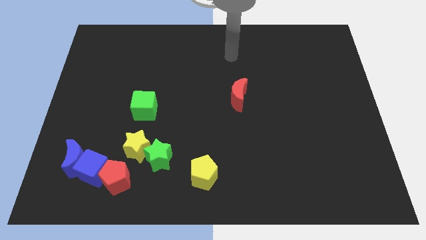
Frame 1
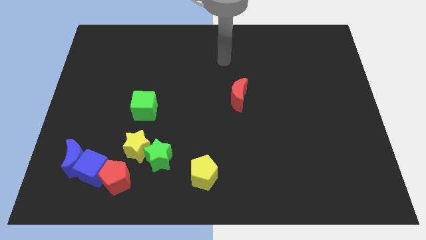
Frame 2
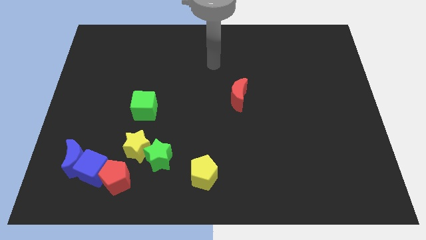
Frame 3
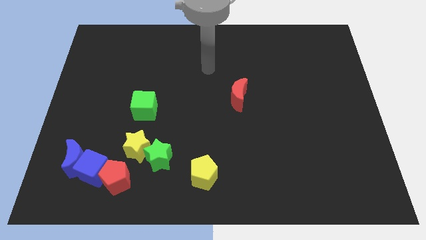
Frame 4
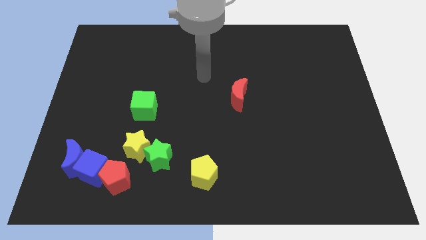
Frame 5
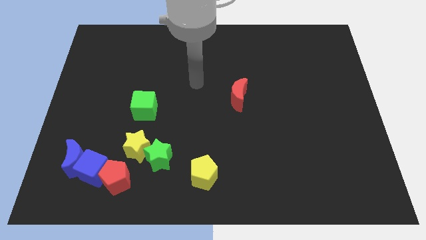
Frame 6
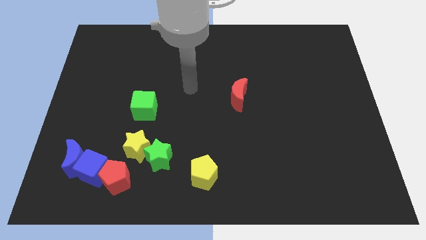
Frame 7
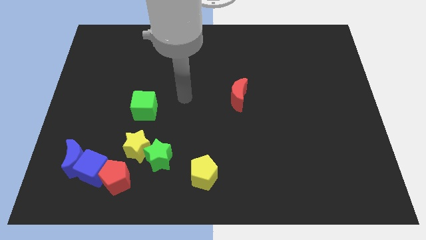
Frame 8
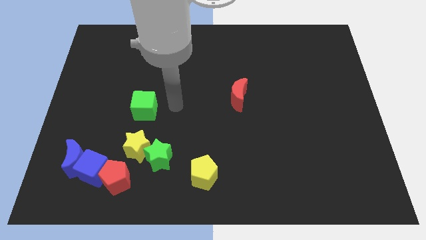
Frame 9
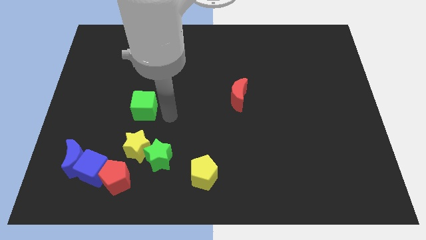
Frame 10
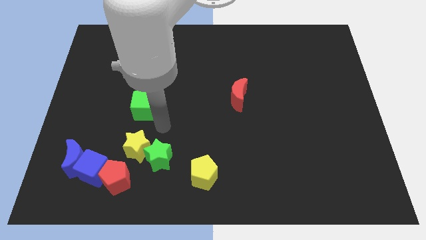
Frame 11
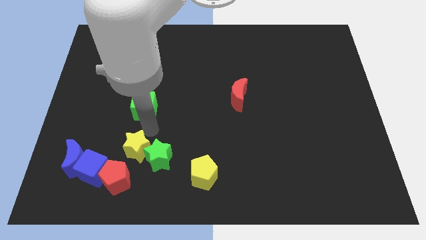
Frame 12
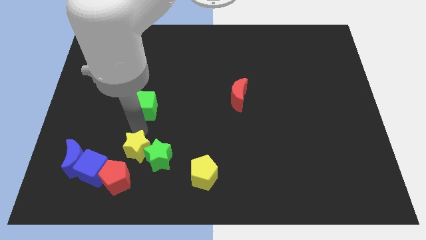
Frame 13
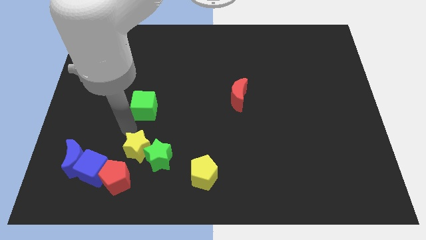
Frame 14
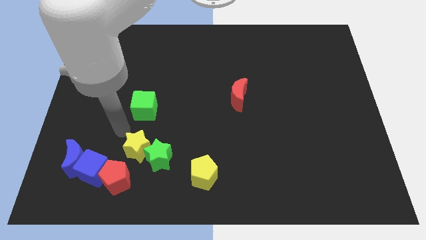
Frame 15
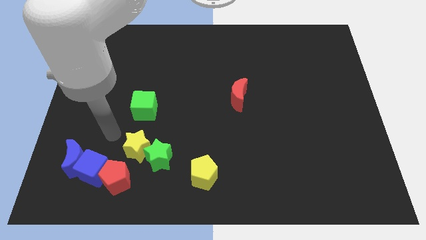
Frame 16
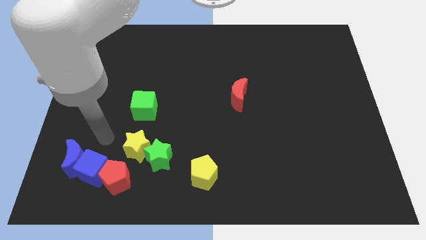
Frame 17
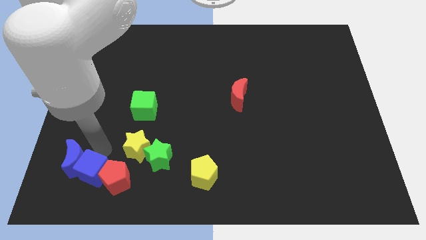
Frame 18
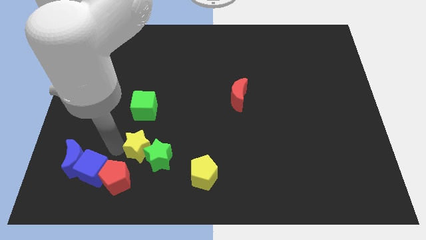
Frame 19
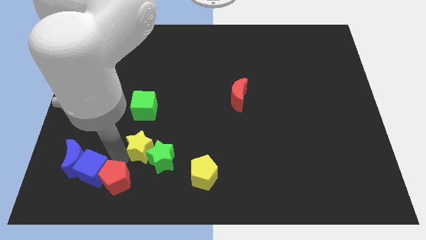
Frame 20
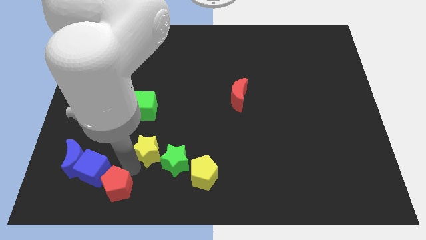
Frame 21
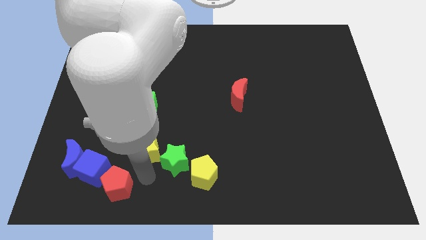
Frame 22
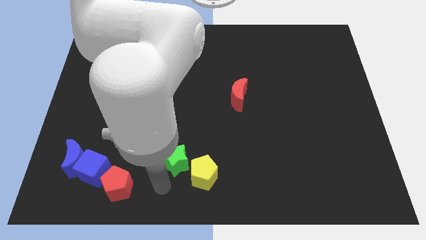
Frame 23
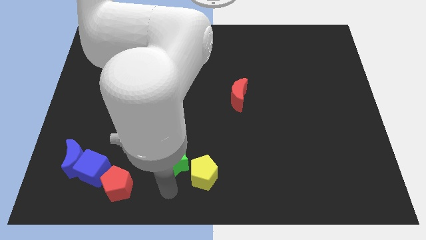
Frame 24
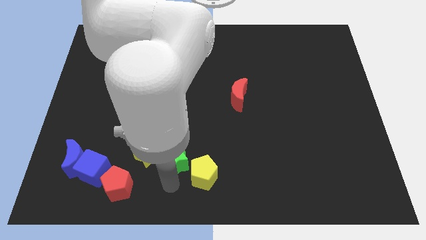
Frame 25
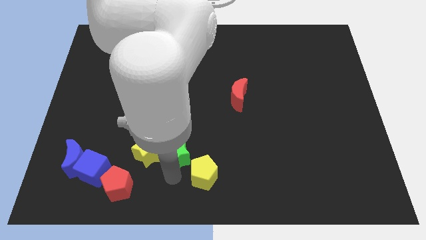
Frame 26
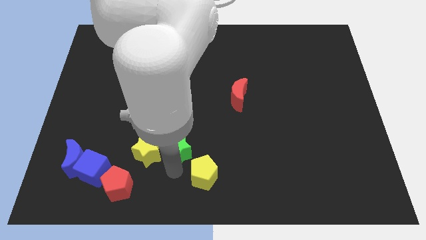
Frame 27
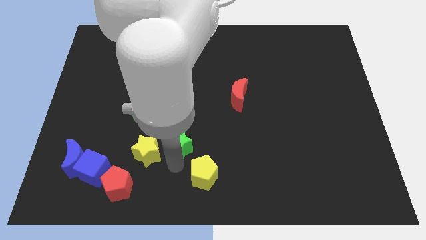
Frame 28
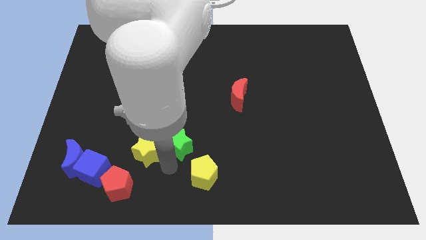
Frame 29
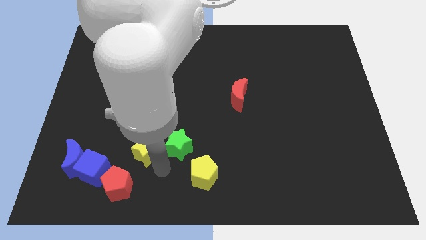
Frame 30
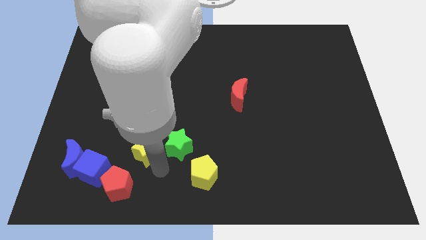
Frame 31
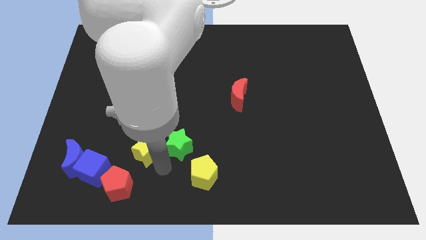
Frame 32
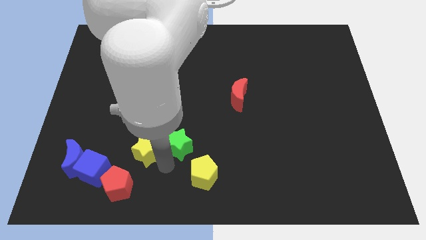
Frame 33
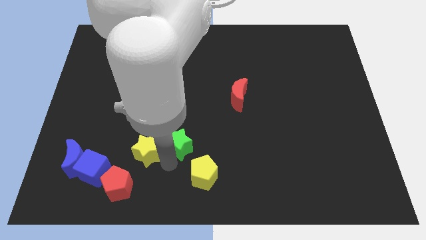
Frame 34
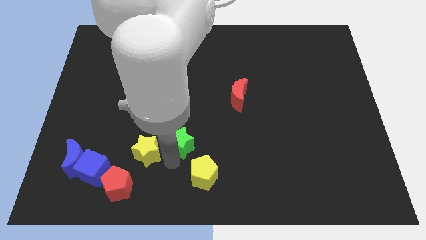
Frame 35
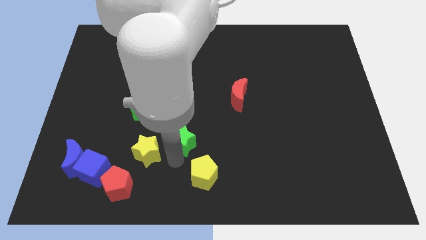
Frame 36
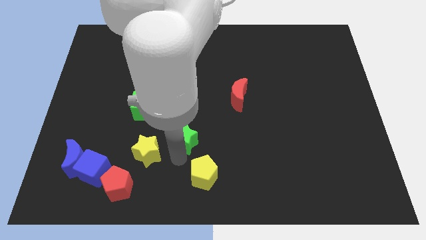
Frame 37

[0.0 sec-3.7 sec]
slide the green star up and to the right a bit

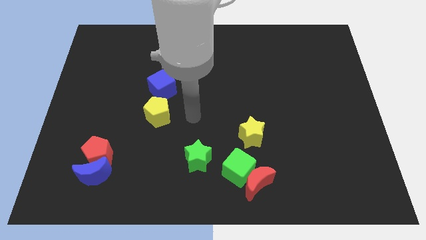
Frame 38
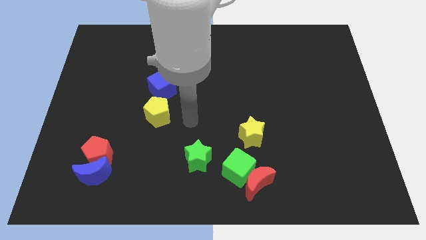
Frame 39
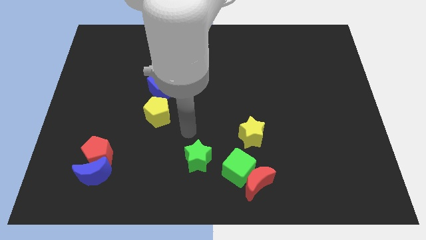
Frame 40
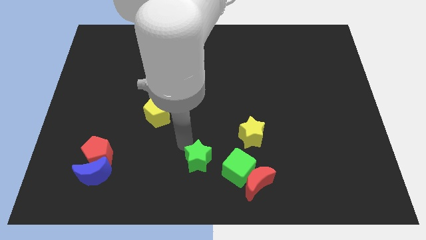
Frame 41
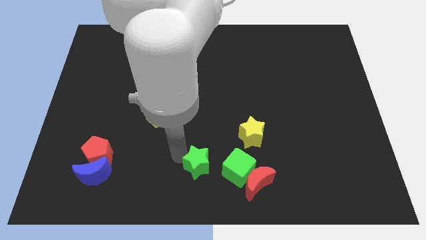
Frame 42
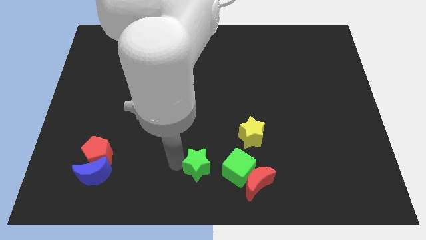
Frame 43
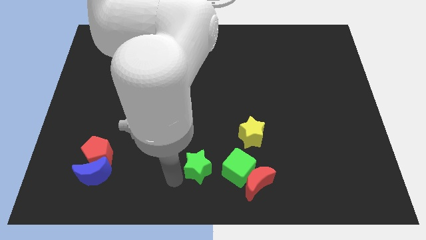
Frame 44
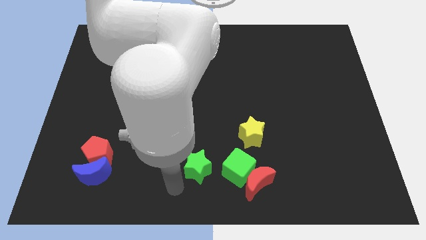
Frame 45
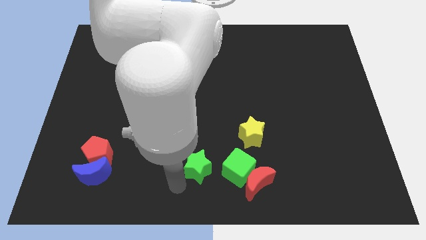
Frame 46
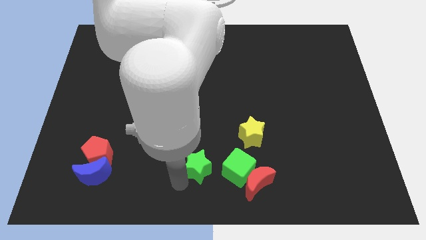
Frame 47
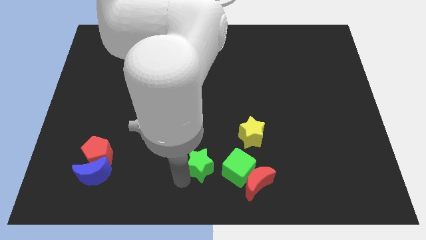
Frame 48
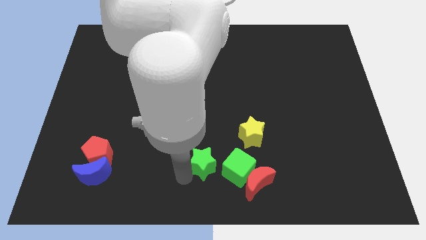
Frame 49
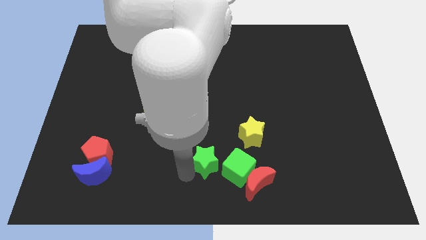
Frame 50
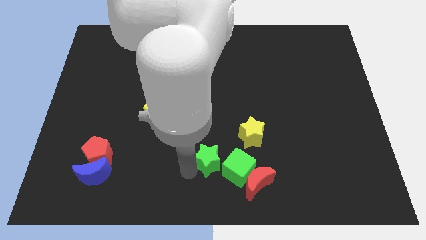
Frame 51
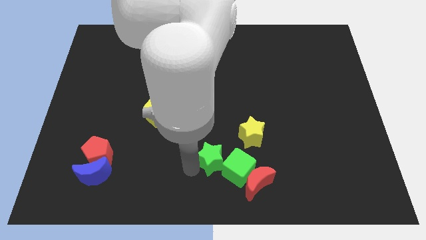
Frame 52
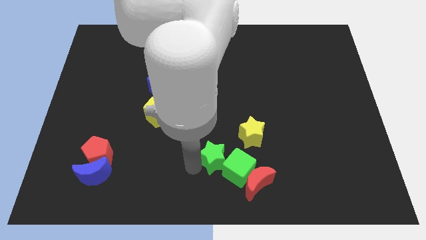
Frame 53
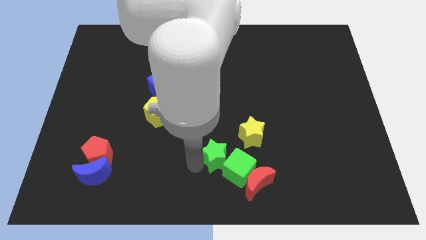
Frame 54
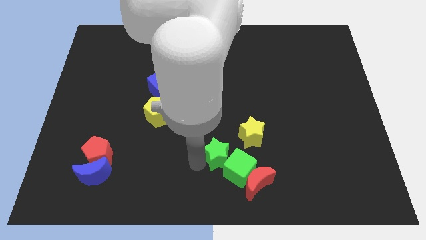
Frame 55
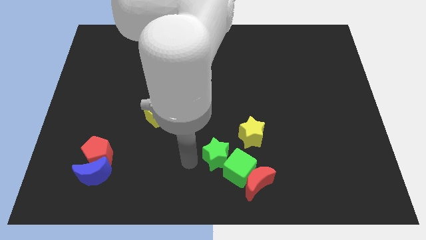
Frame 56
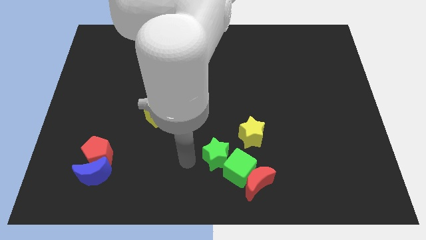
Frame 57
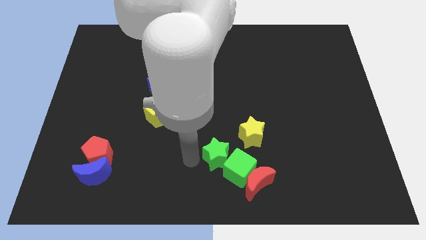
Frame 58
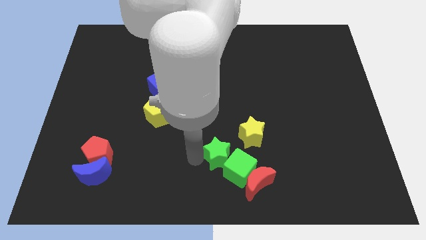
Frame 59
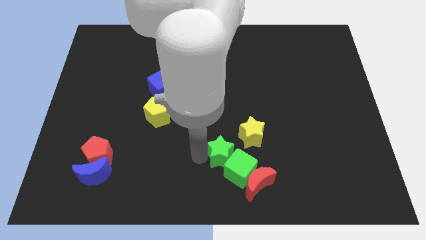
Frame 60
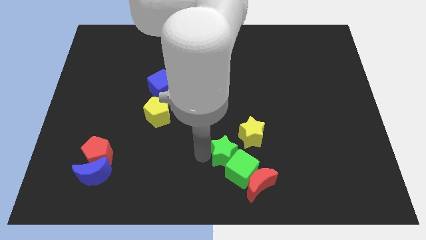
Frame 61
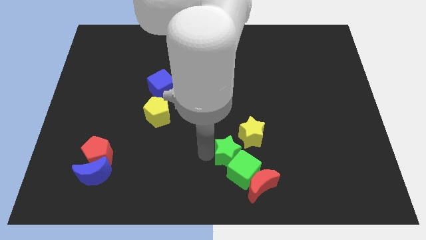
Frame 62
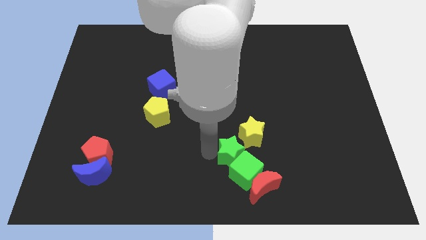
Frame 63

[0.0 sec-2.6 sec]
slightly push the green star to the right

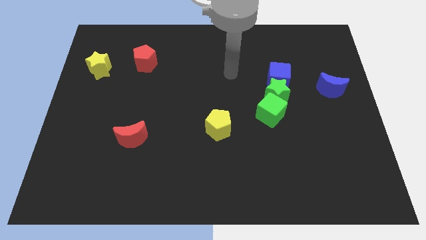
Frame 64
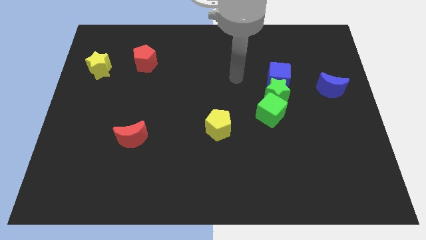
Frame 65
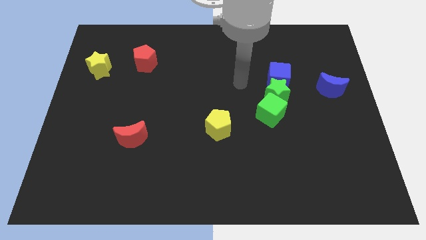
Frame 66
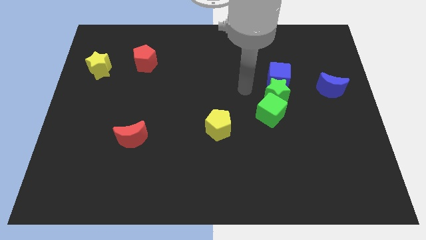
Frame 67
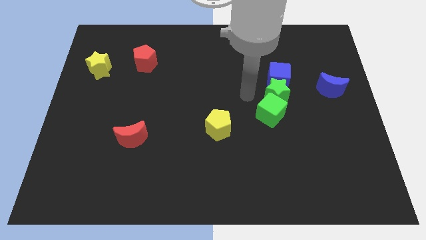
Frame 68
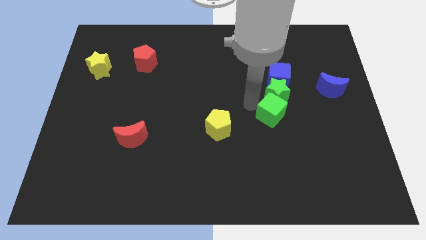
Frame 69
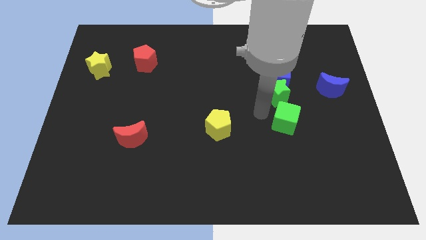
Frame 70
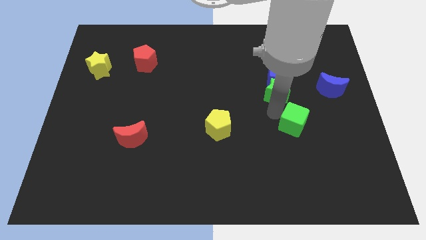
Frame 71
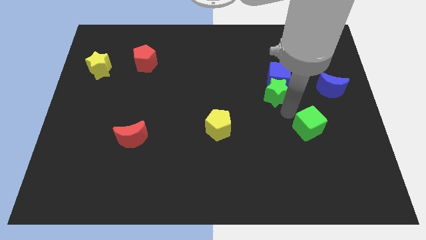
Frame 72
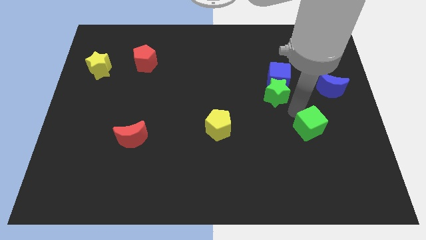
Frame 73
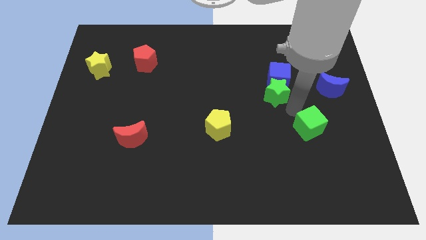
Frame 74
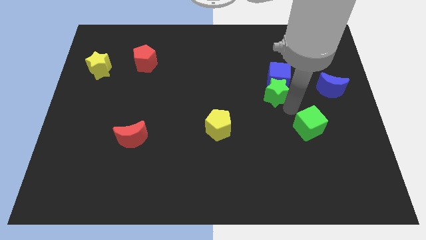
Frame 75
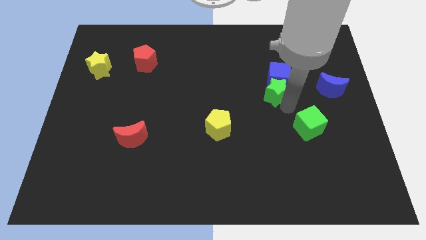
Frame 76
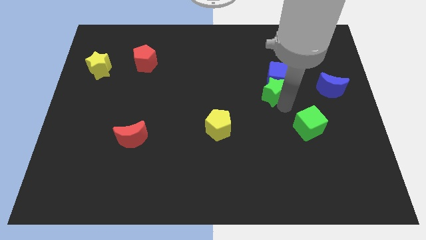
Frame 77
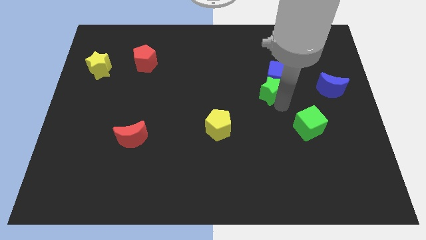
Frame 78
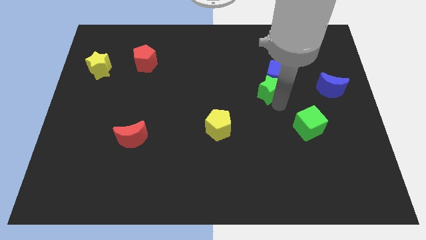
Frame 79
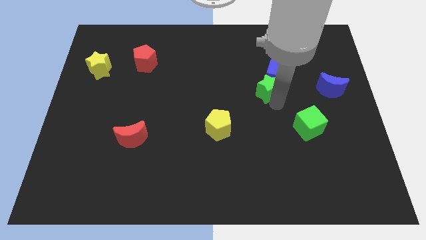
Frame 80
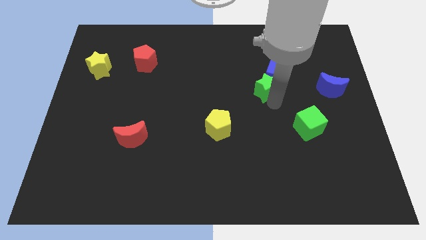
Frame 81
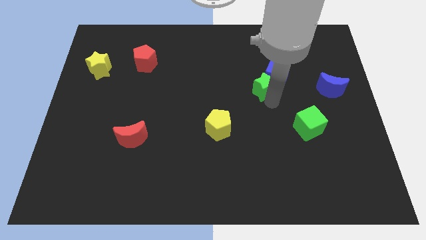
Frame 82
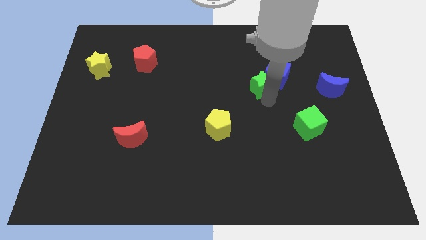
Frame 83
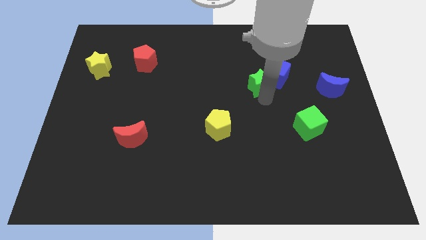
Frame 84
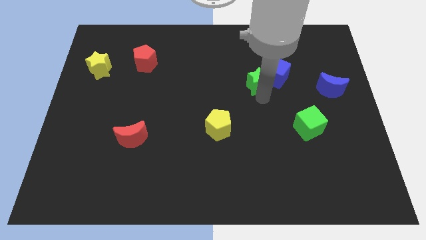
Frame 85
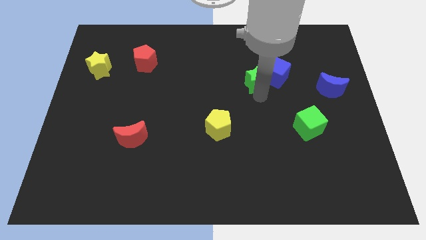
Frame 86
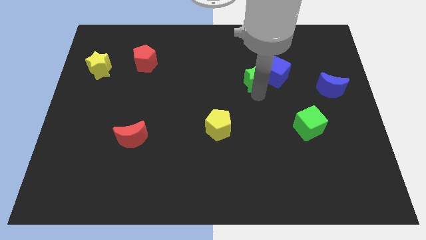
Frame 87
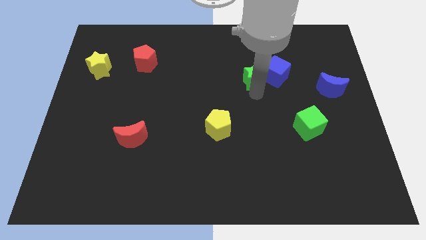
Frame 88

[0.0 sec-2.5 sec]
push the green star somewhat up and then to the left
